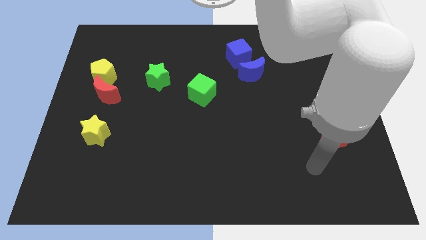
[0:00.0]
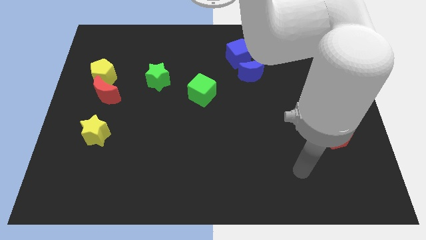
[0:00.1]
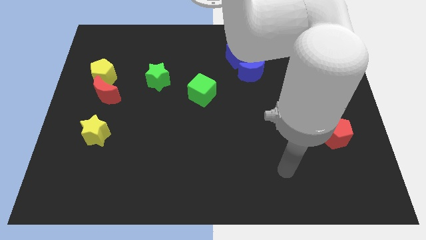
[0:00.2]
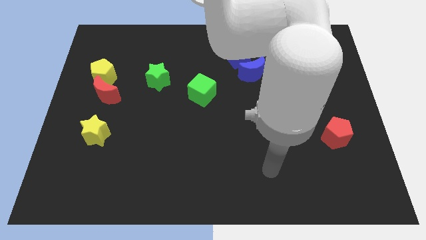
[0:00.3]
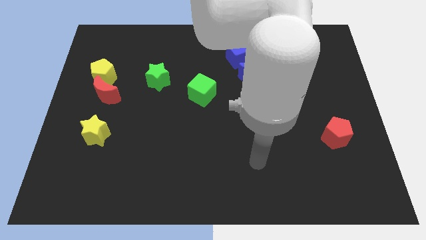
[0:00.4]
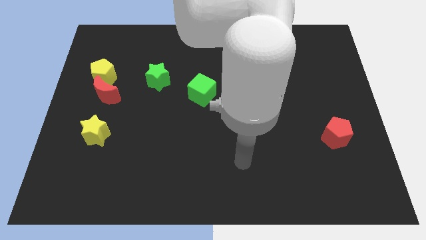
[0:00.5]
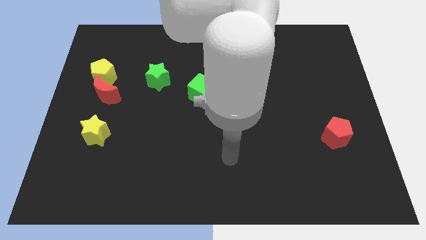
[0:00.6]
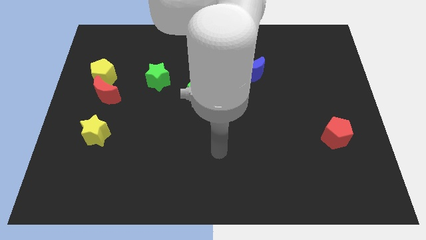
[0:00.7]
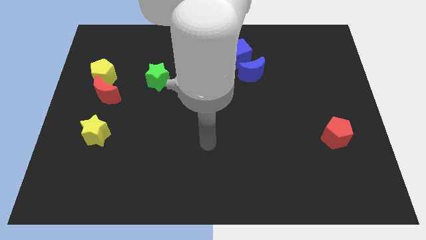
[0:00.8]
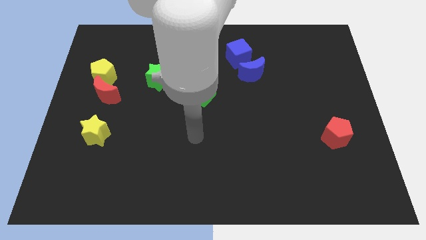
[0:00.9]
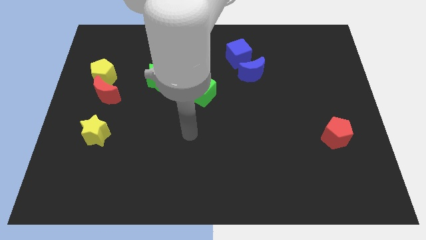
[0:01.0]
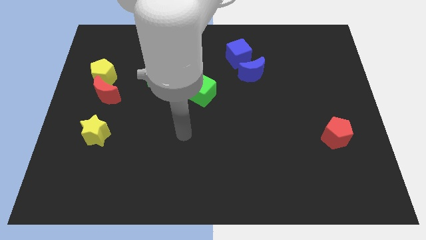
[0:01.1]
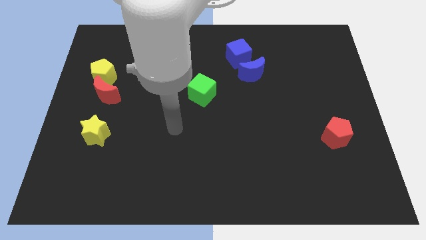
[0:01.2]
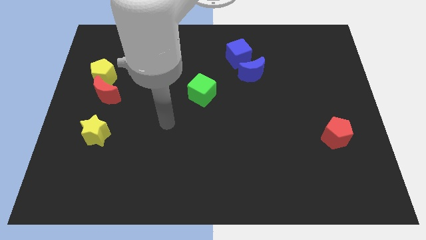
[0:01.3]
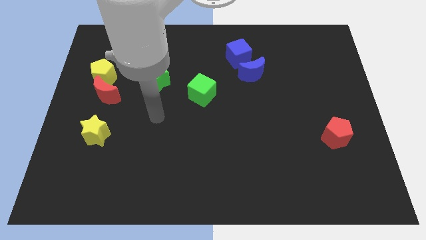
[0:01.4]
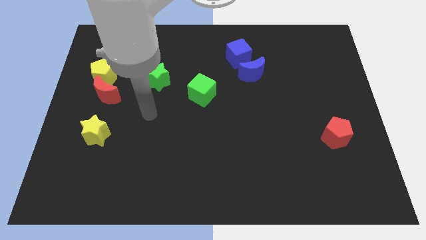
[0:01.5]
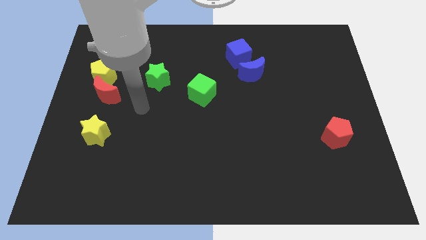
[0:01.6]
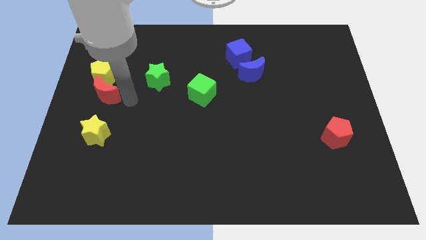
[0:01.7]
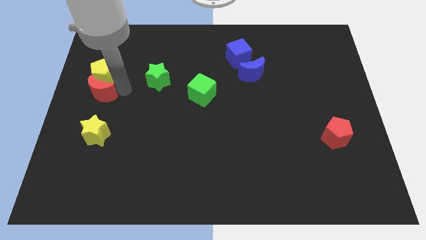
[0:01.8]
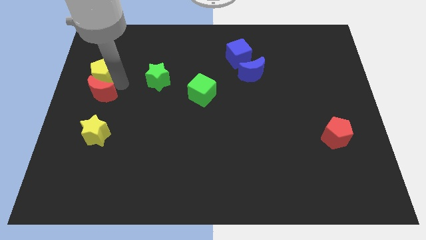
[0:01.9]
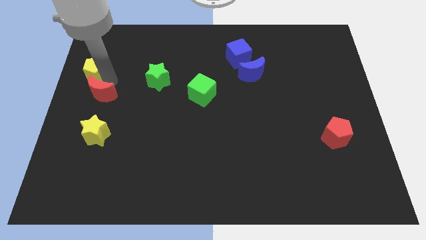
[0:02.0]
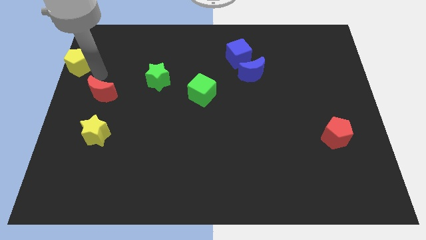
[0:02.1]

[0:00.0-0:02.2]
move the red moon away from the yellow pentagon

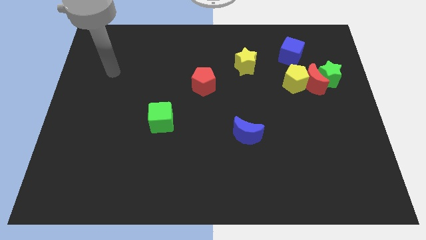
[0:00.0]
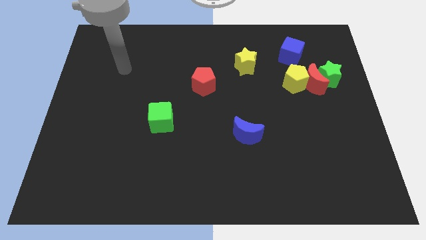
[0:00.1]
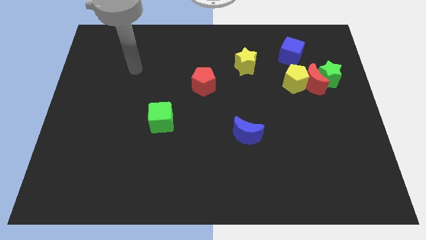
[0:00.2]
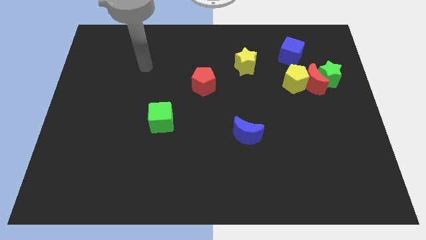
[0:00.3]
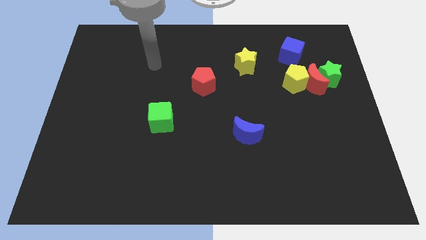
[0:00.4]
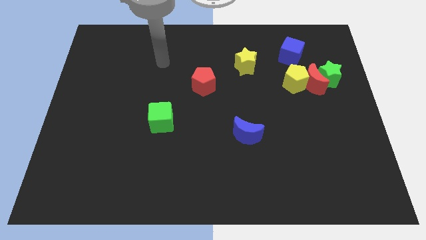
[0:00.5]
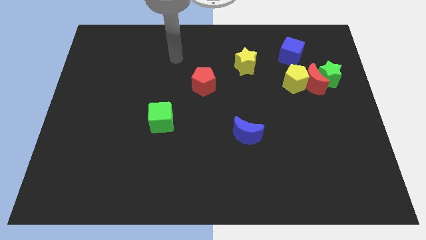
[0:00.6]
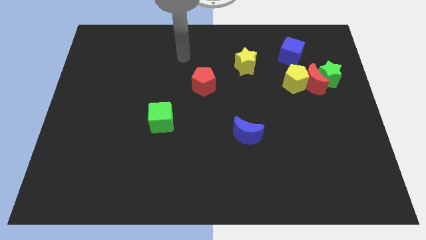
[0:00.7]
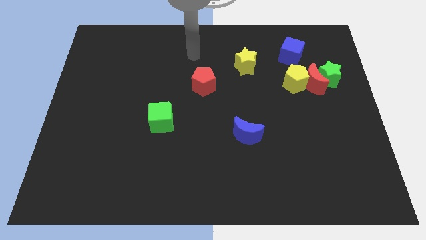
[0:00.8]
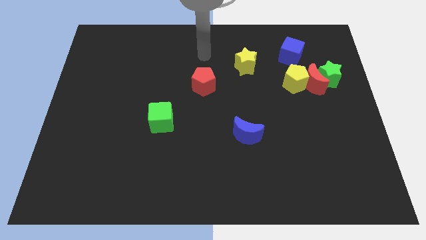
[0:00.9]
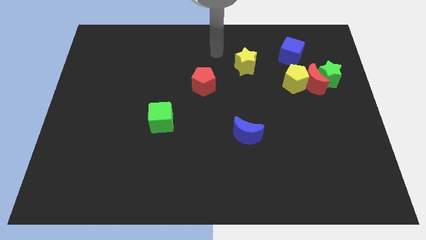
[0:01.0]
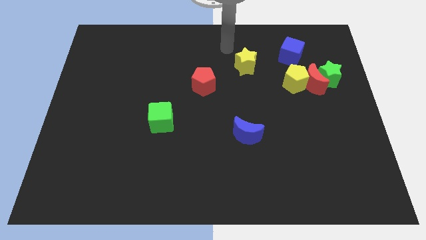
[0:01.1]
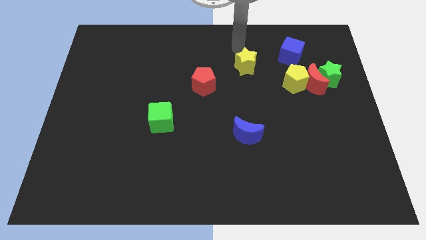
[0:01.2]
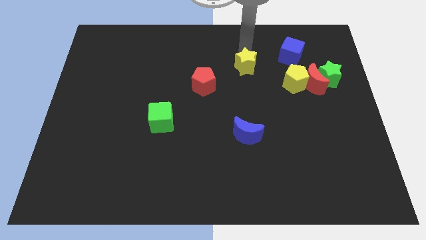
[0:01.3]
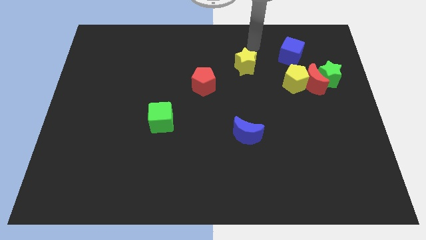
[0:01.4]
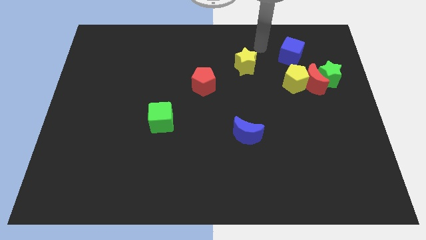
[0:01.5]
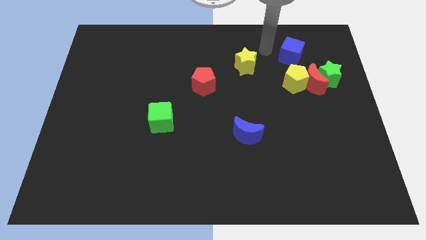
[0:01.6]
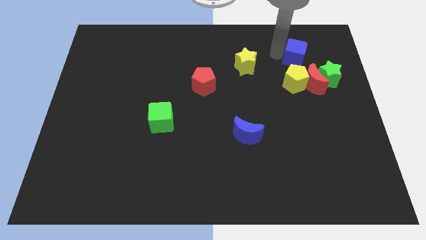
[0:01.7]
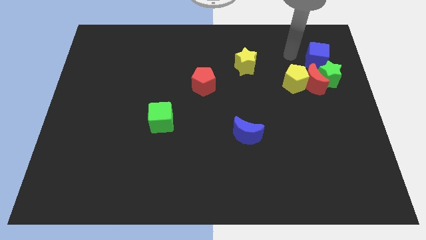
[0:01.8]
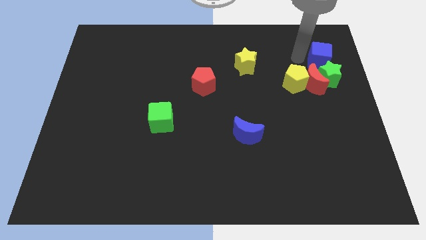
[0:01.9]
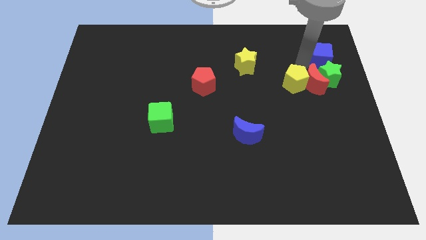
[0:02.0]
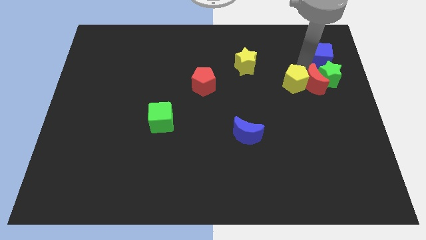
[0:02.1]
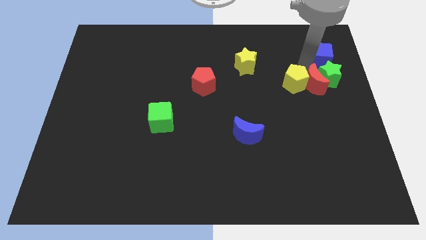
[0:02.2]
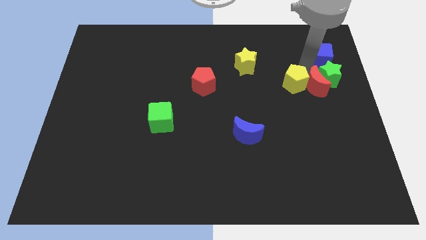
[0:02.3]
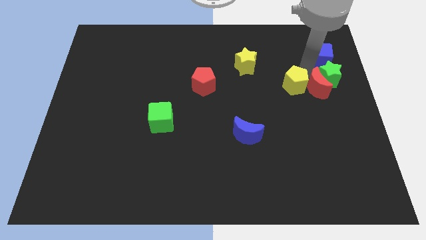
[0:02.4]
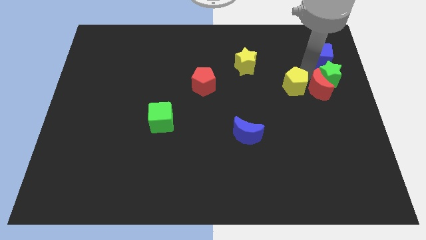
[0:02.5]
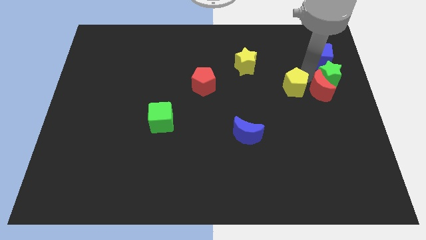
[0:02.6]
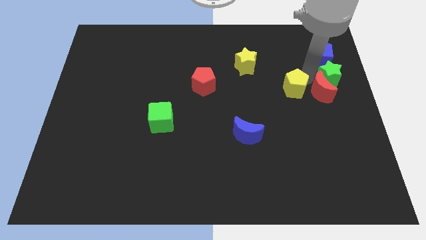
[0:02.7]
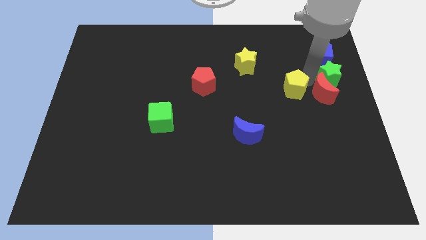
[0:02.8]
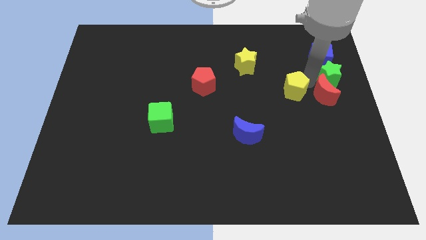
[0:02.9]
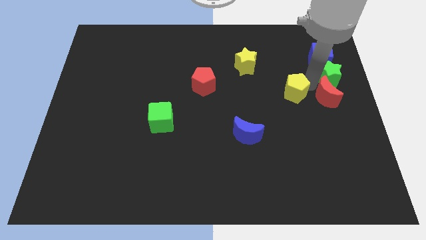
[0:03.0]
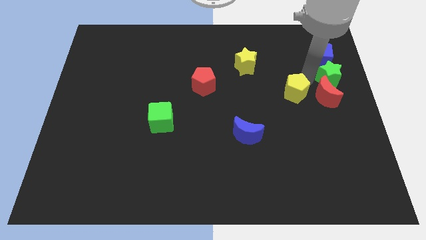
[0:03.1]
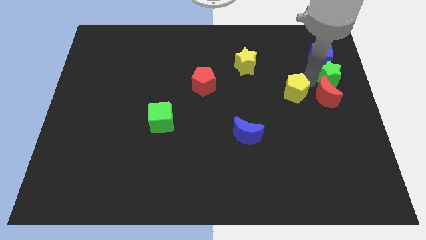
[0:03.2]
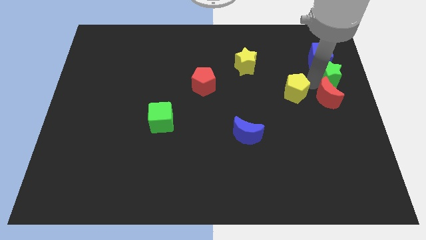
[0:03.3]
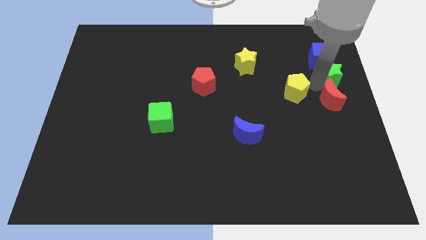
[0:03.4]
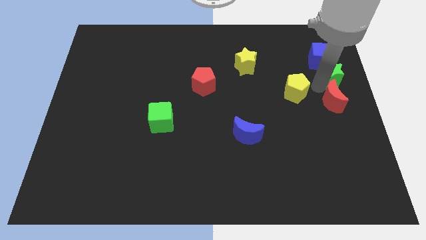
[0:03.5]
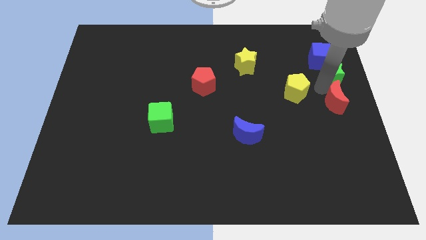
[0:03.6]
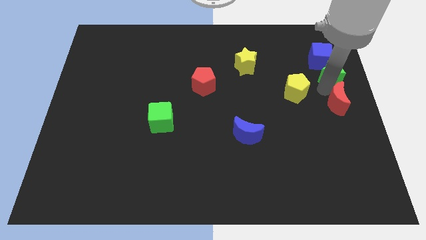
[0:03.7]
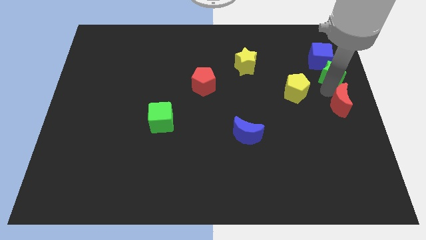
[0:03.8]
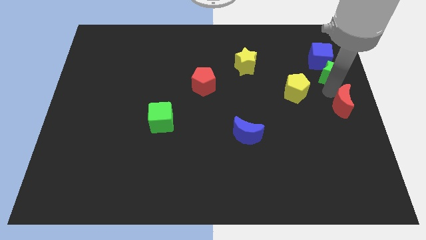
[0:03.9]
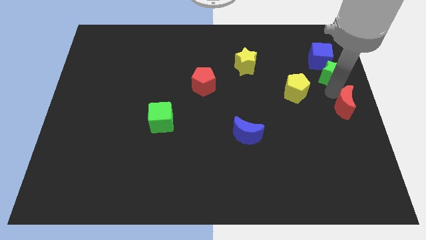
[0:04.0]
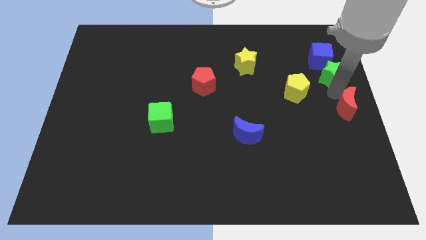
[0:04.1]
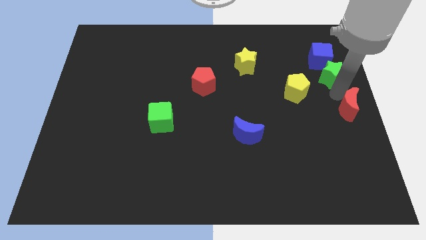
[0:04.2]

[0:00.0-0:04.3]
separate the red moon from the green star and yellow pentagon

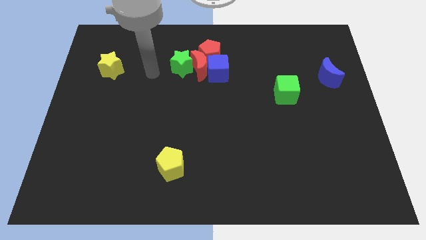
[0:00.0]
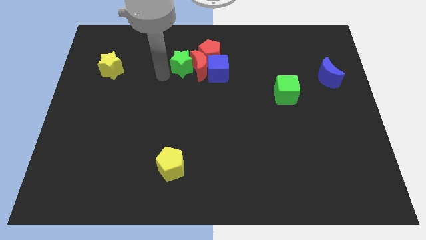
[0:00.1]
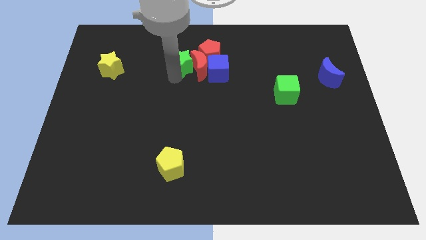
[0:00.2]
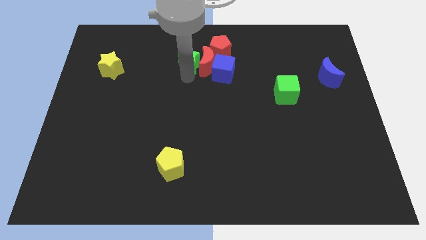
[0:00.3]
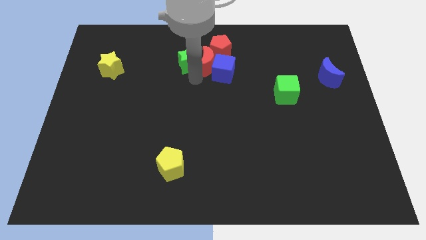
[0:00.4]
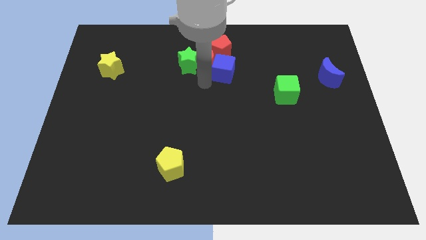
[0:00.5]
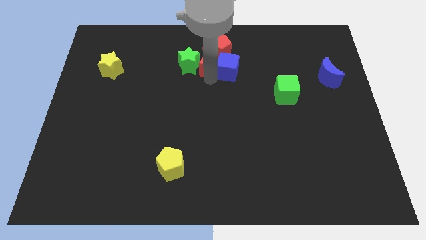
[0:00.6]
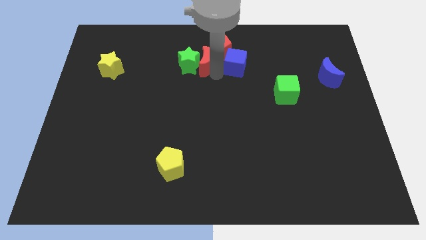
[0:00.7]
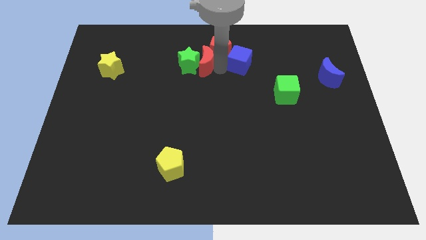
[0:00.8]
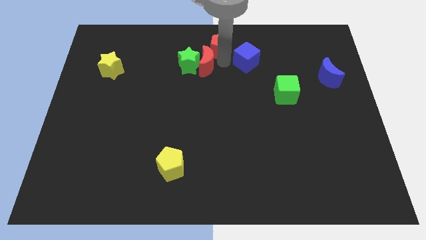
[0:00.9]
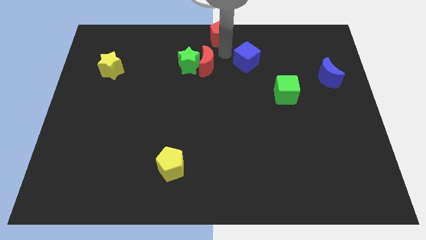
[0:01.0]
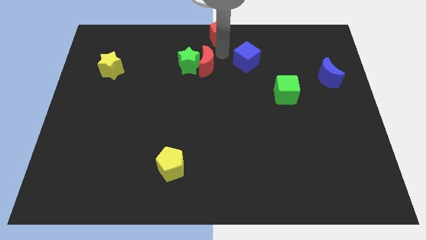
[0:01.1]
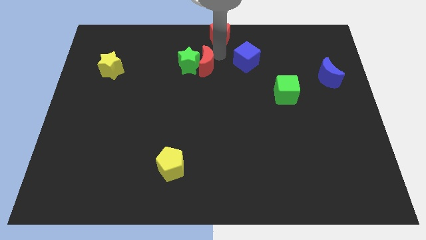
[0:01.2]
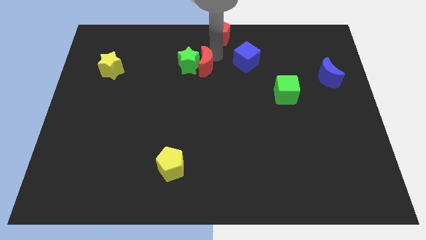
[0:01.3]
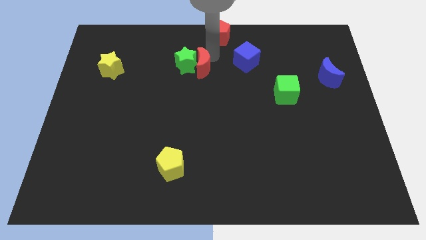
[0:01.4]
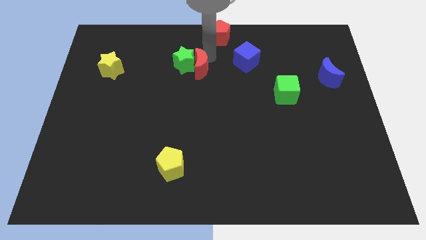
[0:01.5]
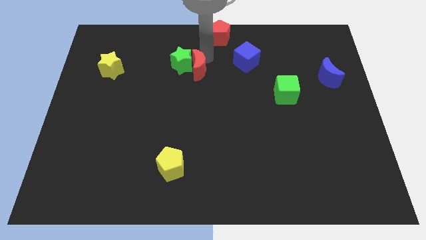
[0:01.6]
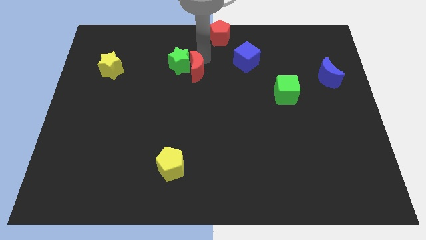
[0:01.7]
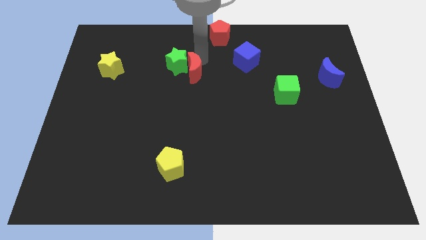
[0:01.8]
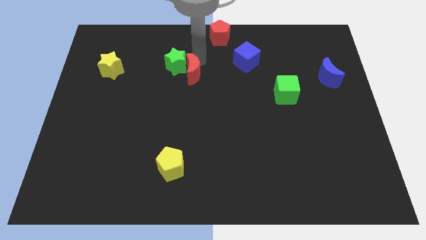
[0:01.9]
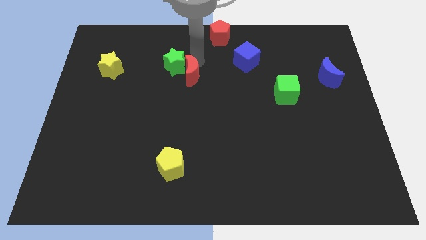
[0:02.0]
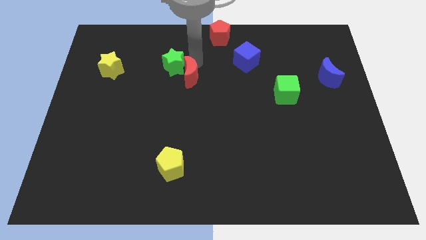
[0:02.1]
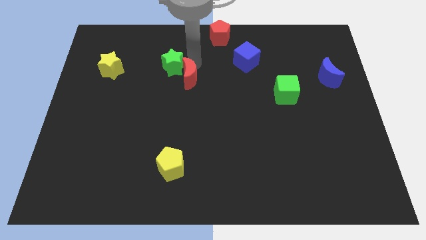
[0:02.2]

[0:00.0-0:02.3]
separate the red moon from the group of blocks

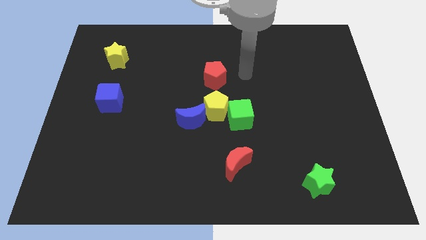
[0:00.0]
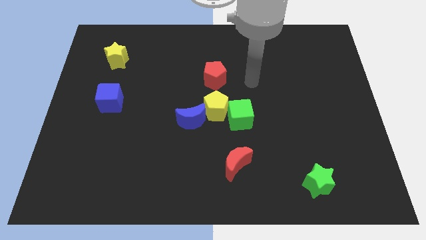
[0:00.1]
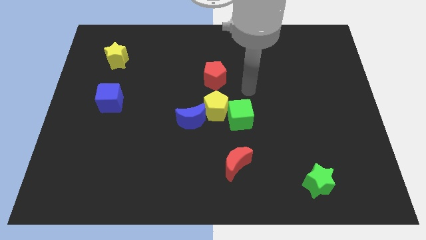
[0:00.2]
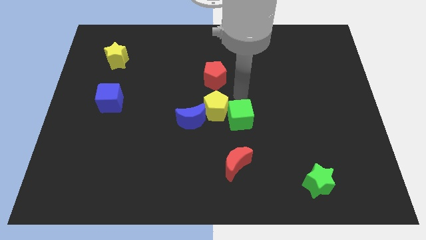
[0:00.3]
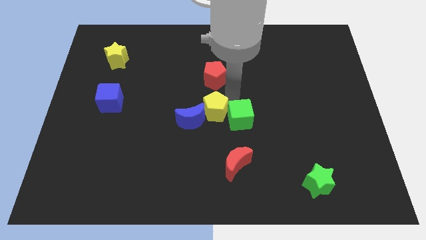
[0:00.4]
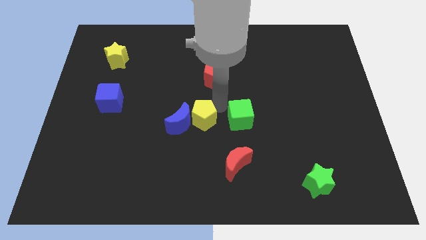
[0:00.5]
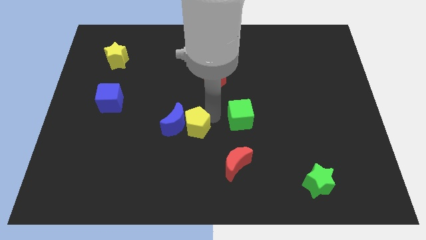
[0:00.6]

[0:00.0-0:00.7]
separate the green cube from the yellow pentagon
